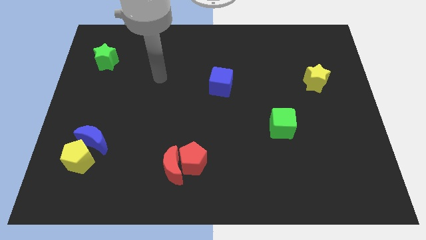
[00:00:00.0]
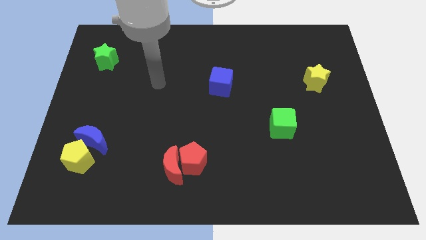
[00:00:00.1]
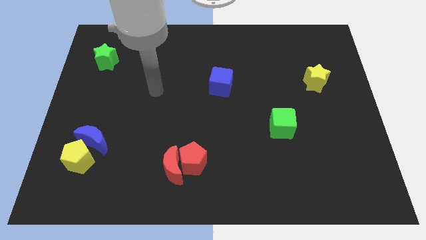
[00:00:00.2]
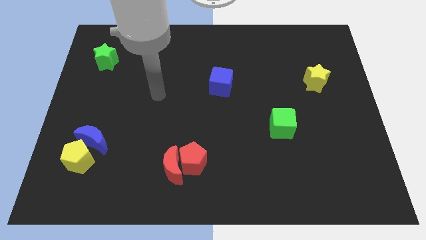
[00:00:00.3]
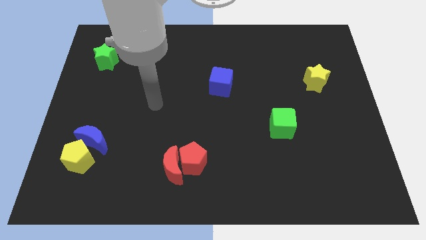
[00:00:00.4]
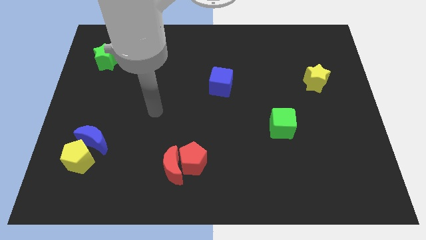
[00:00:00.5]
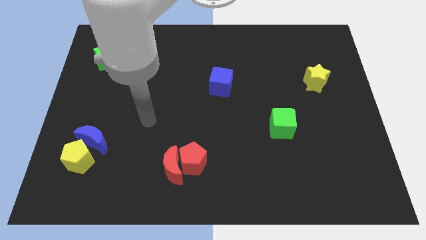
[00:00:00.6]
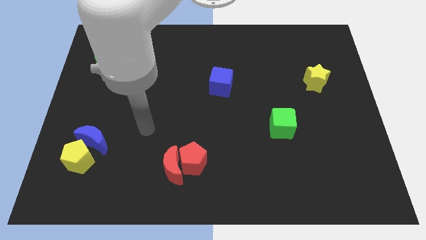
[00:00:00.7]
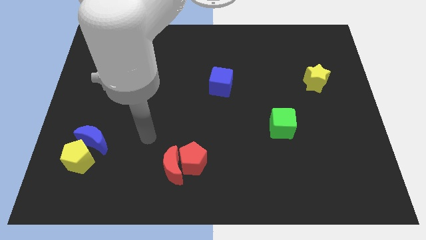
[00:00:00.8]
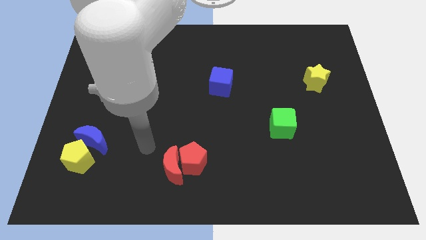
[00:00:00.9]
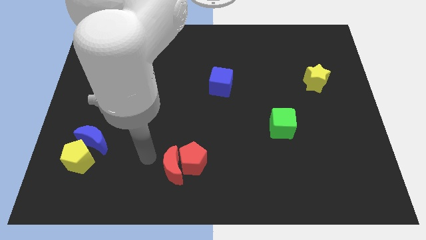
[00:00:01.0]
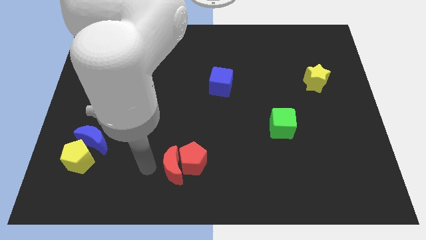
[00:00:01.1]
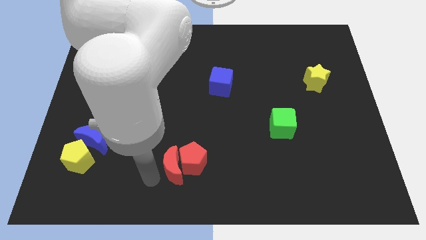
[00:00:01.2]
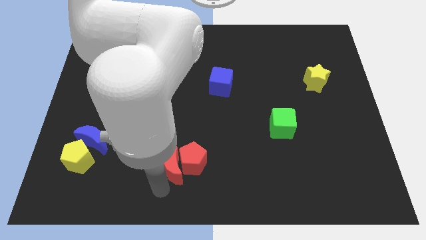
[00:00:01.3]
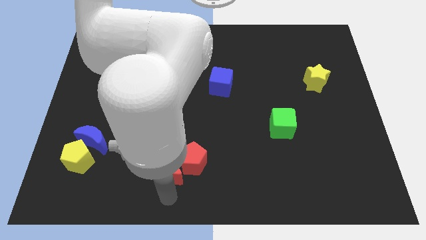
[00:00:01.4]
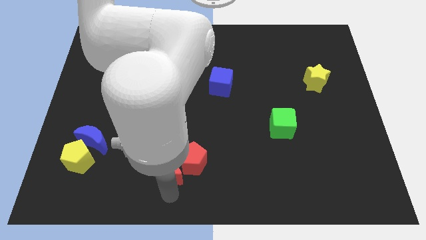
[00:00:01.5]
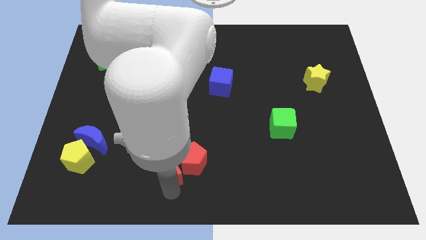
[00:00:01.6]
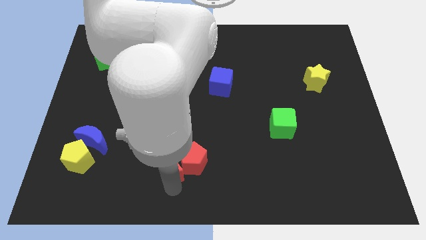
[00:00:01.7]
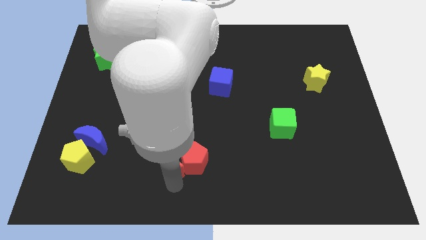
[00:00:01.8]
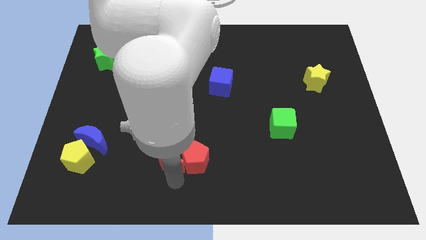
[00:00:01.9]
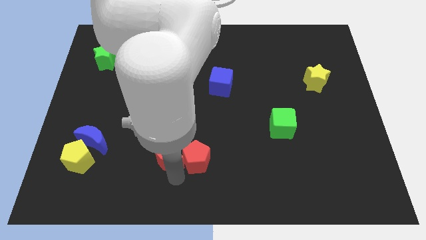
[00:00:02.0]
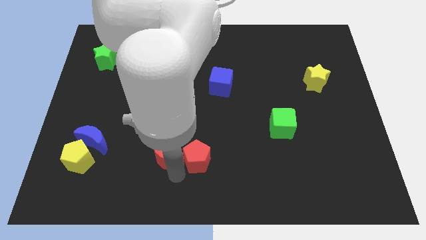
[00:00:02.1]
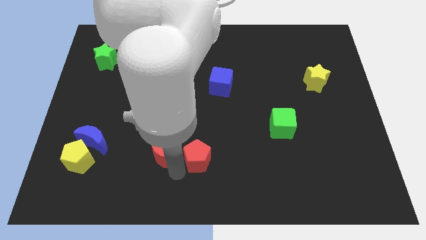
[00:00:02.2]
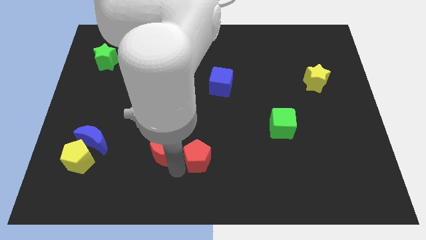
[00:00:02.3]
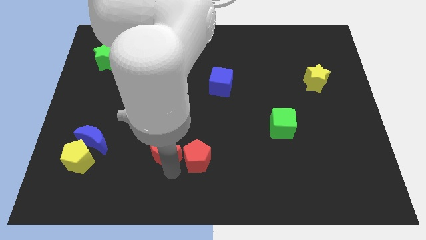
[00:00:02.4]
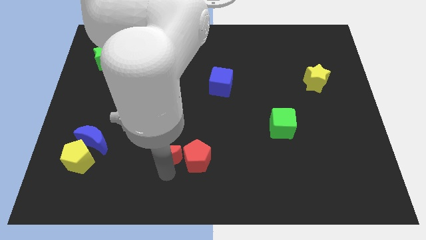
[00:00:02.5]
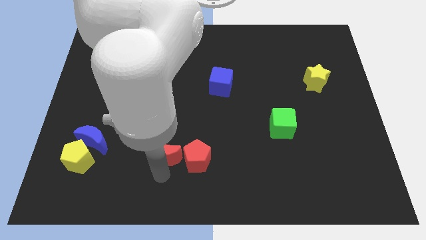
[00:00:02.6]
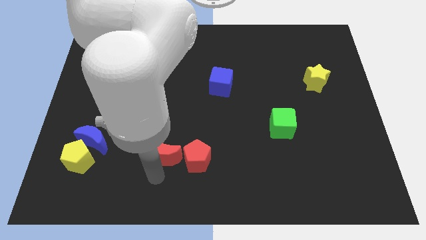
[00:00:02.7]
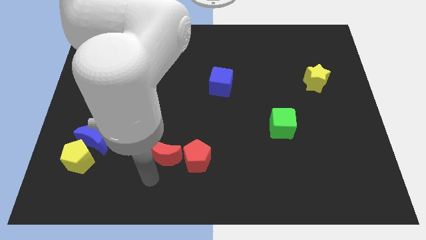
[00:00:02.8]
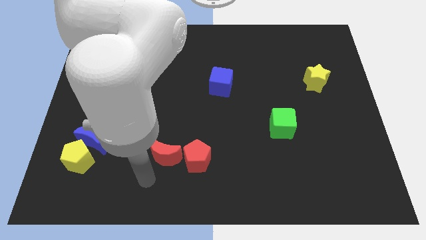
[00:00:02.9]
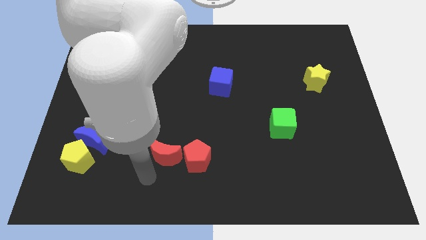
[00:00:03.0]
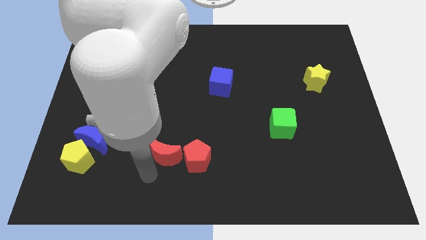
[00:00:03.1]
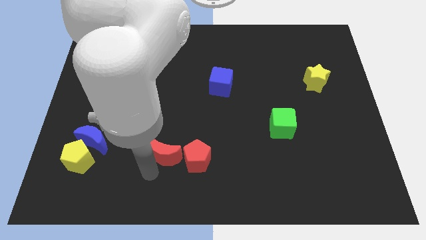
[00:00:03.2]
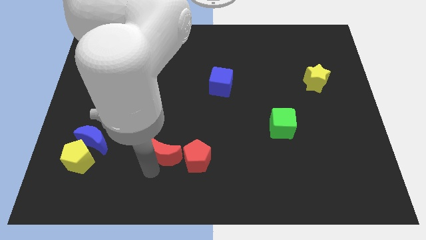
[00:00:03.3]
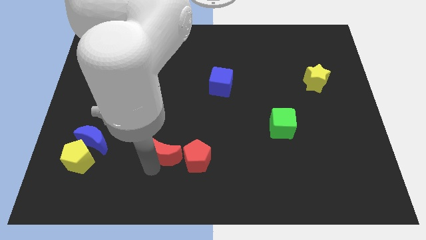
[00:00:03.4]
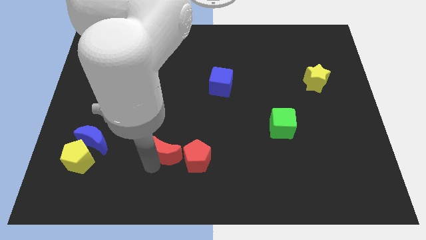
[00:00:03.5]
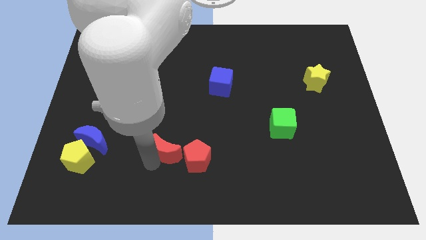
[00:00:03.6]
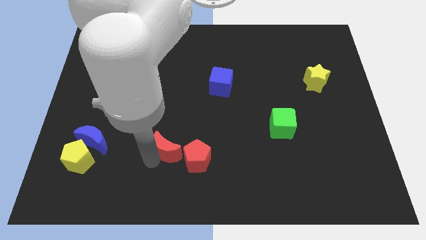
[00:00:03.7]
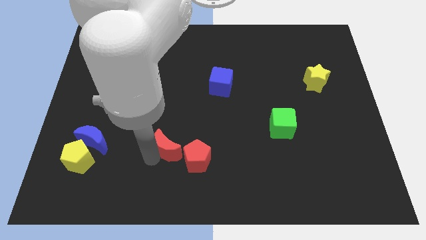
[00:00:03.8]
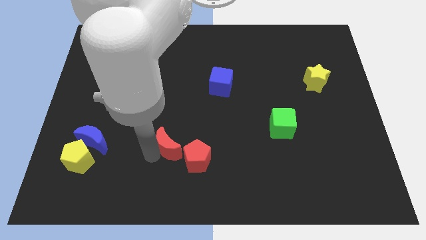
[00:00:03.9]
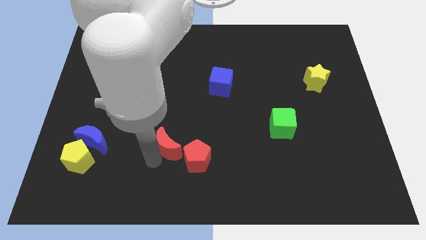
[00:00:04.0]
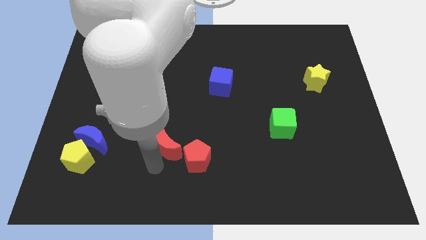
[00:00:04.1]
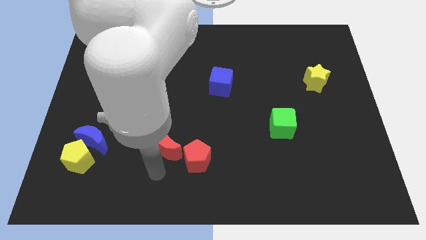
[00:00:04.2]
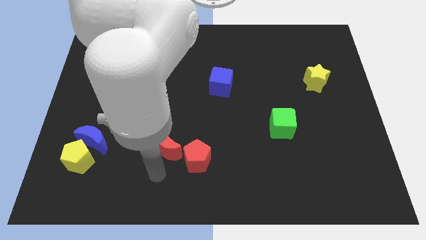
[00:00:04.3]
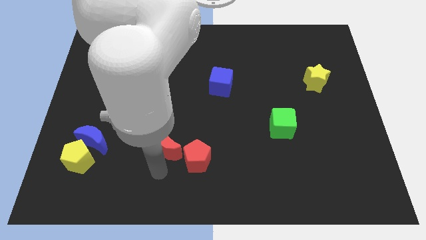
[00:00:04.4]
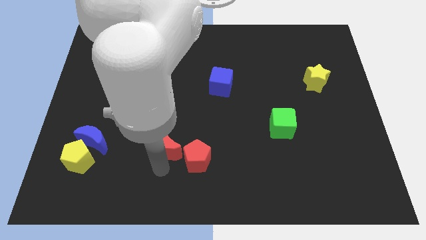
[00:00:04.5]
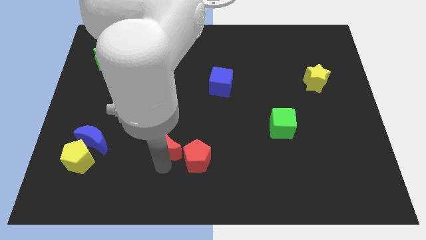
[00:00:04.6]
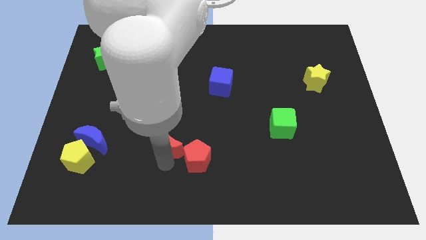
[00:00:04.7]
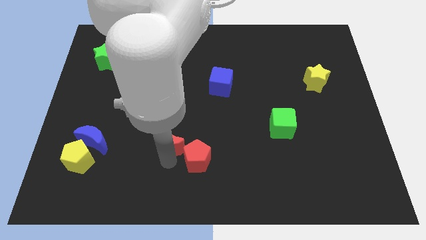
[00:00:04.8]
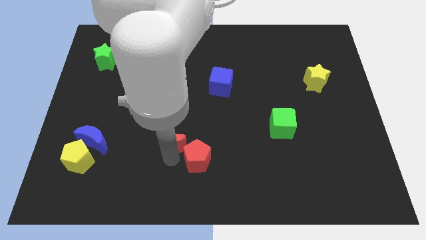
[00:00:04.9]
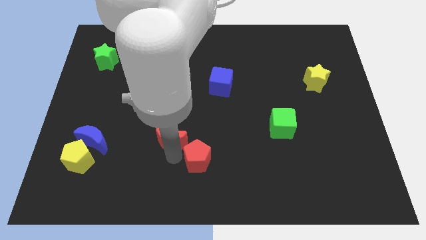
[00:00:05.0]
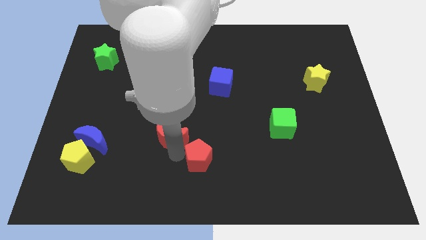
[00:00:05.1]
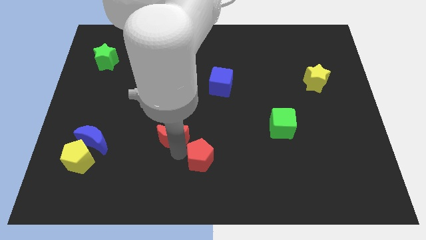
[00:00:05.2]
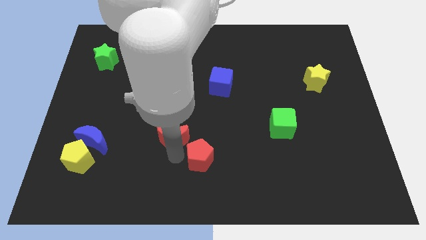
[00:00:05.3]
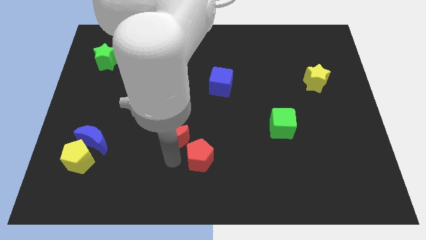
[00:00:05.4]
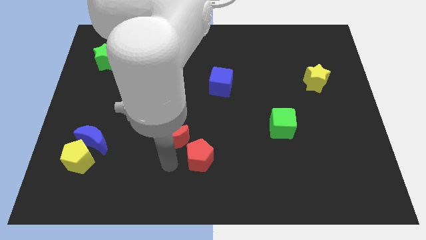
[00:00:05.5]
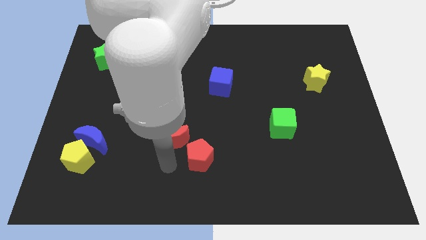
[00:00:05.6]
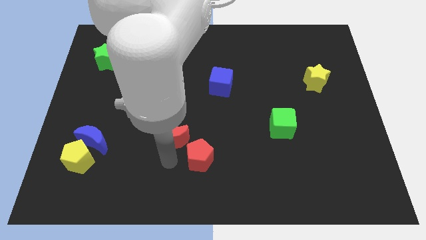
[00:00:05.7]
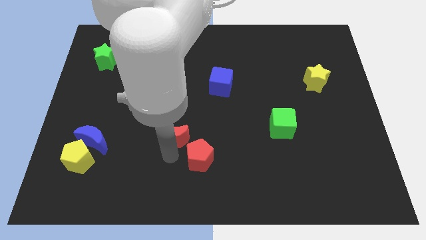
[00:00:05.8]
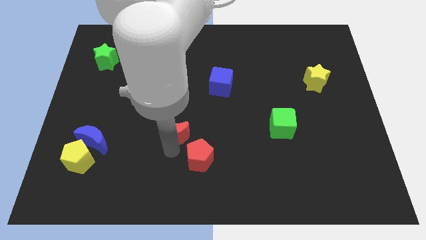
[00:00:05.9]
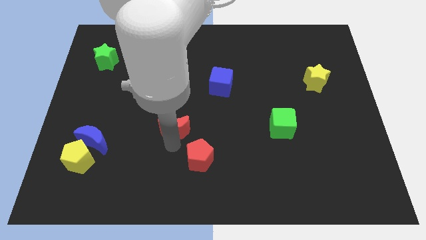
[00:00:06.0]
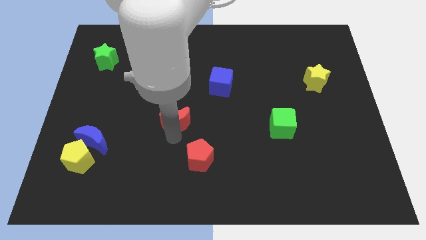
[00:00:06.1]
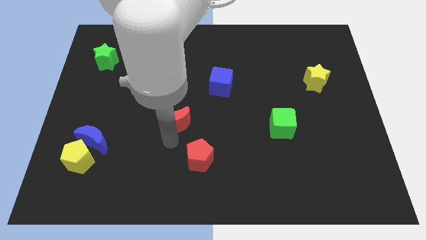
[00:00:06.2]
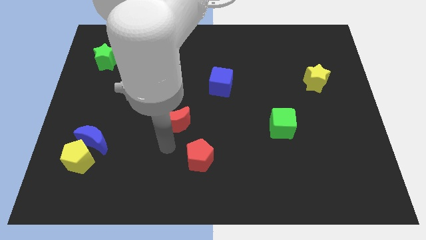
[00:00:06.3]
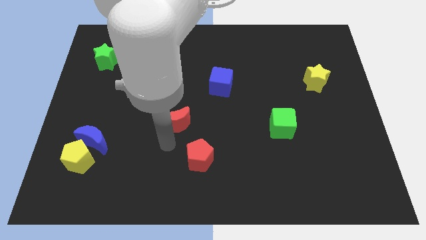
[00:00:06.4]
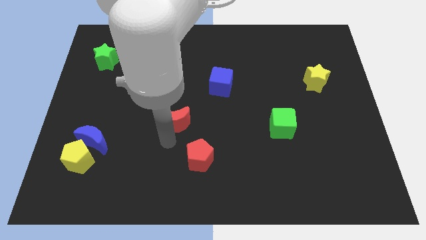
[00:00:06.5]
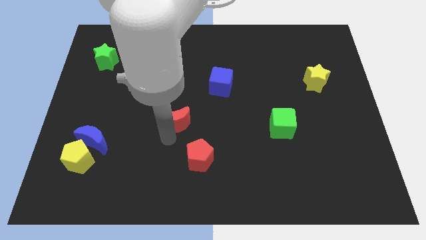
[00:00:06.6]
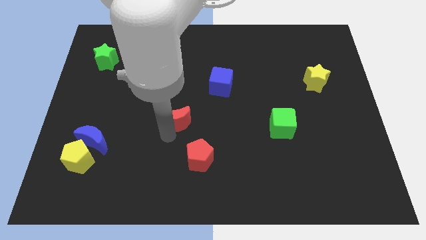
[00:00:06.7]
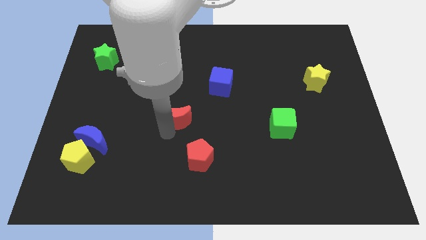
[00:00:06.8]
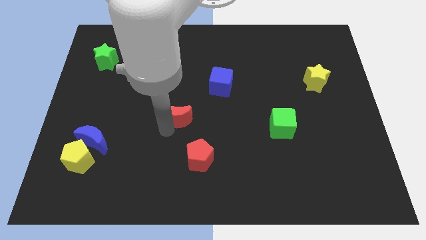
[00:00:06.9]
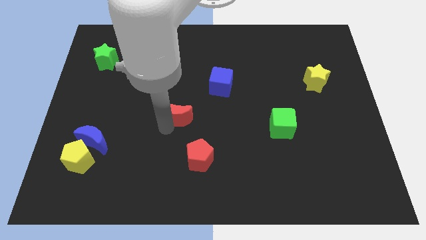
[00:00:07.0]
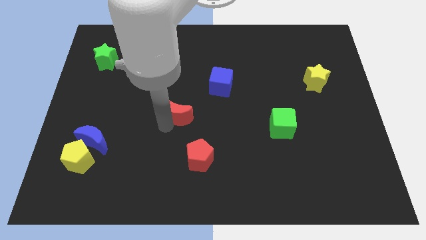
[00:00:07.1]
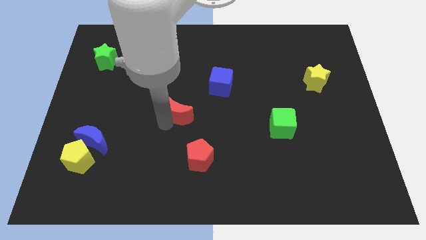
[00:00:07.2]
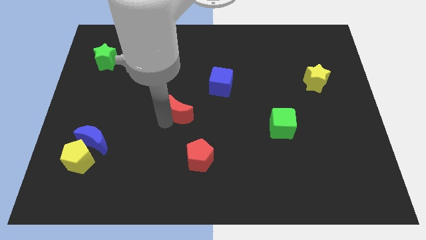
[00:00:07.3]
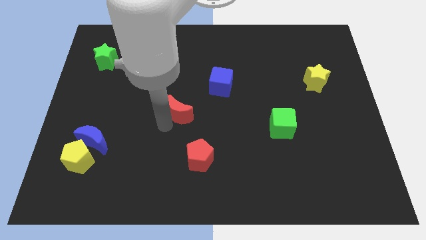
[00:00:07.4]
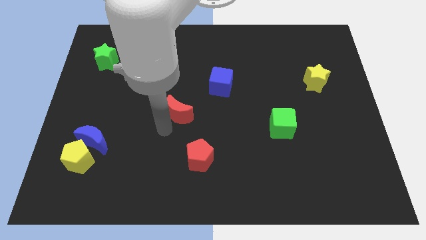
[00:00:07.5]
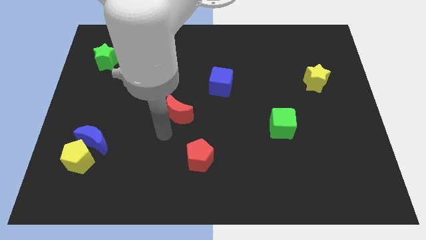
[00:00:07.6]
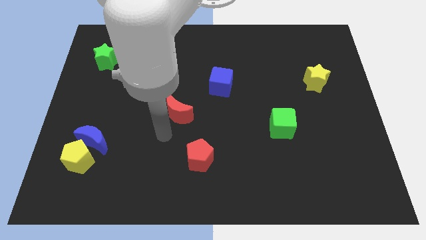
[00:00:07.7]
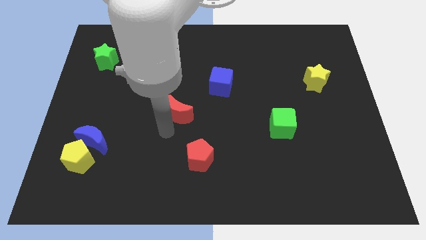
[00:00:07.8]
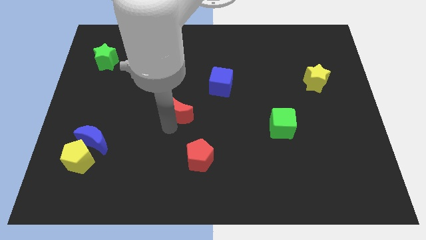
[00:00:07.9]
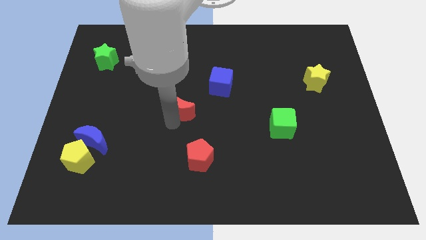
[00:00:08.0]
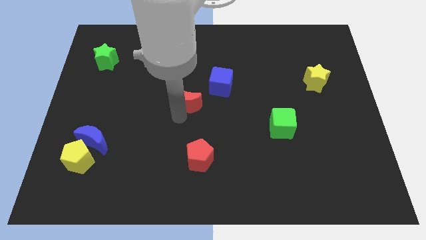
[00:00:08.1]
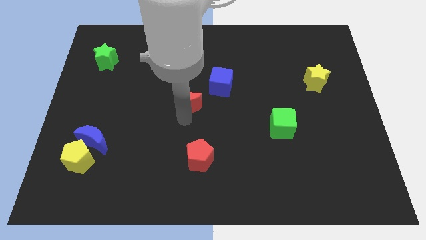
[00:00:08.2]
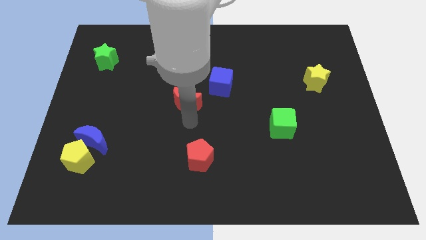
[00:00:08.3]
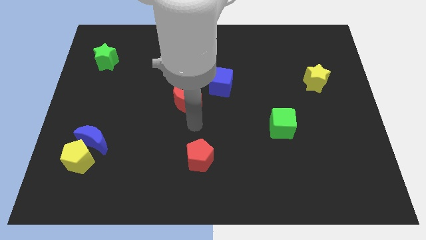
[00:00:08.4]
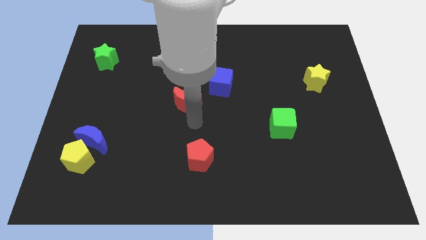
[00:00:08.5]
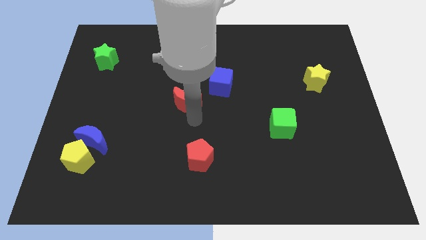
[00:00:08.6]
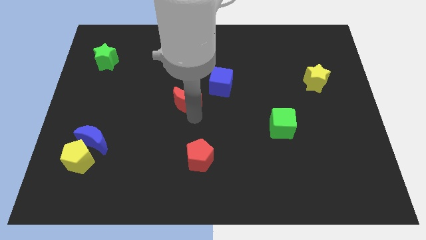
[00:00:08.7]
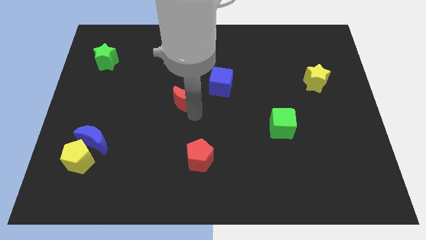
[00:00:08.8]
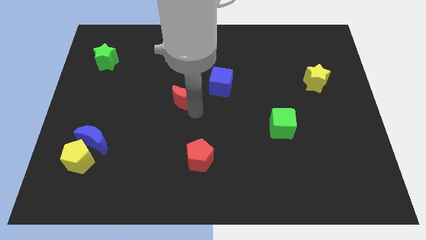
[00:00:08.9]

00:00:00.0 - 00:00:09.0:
slide the red moon left of the blue cube
